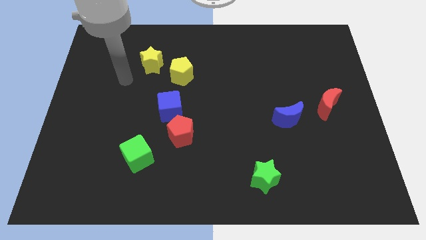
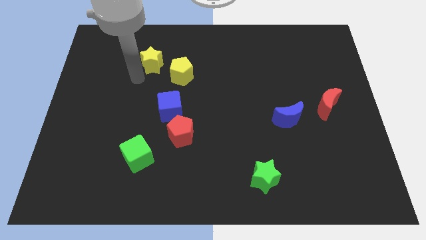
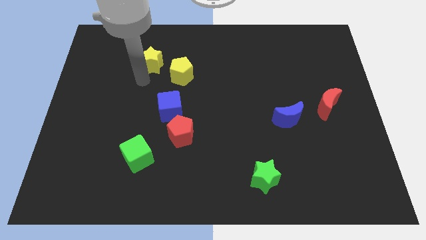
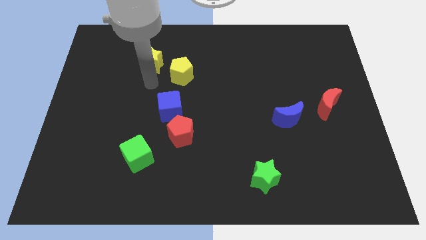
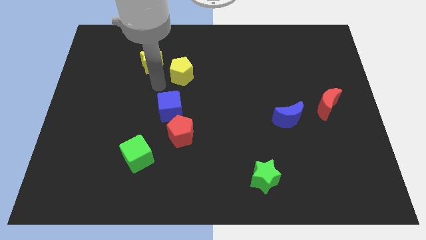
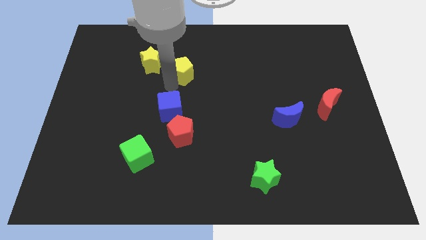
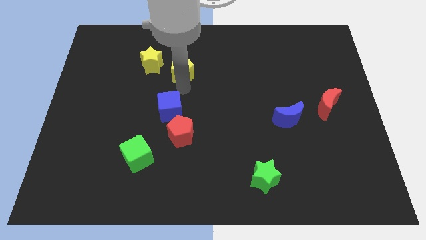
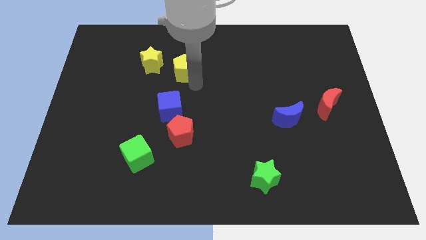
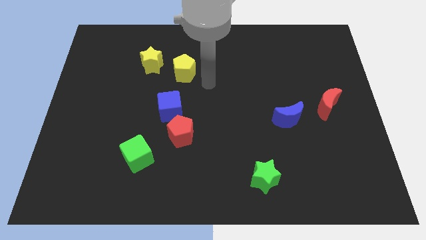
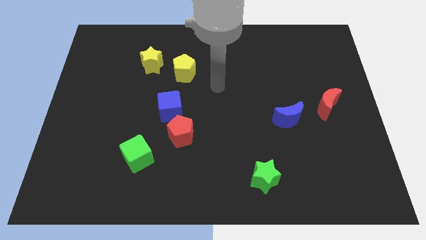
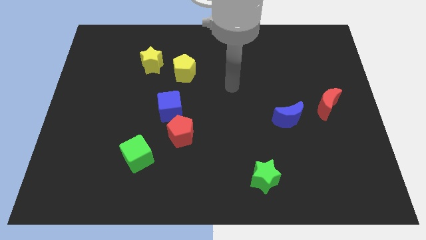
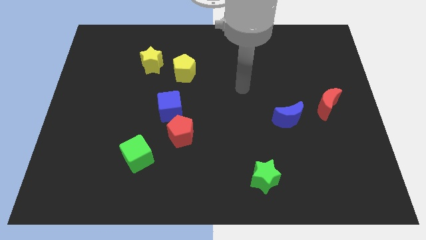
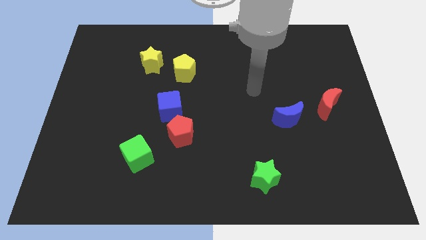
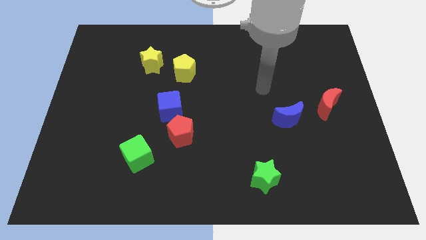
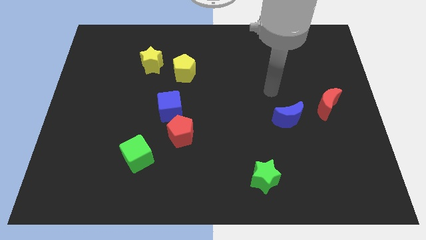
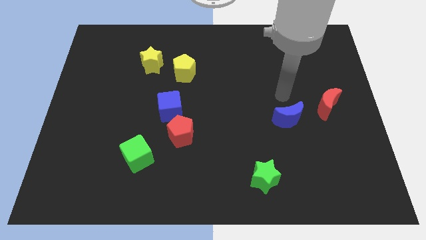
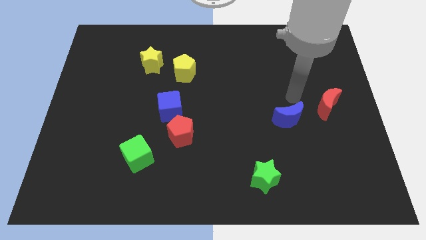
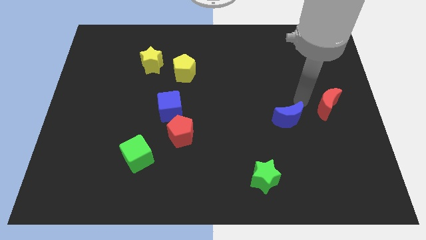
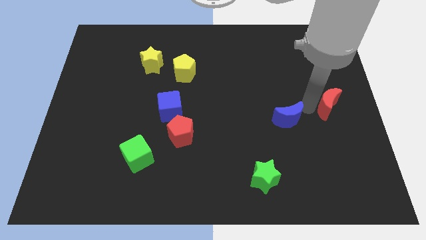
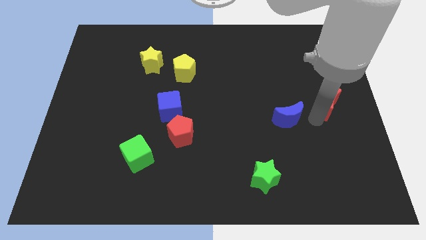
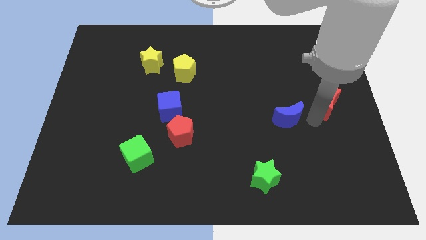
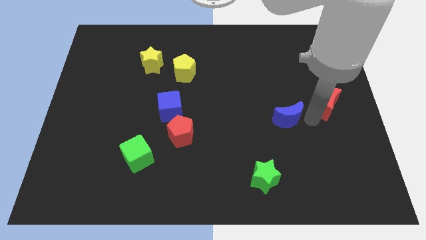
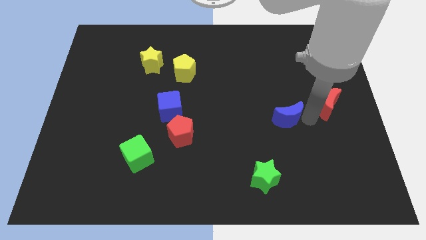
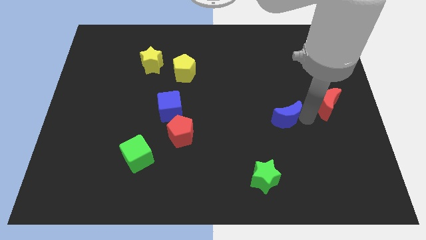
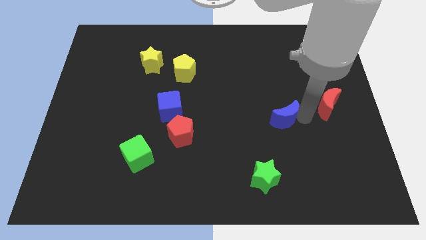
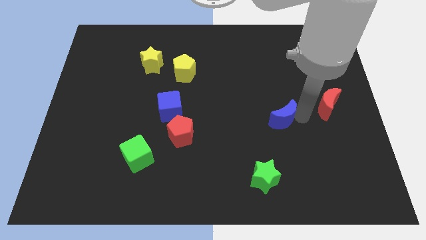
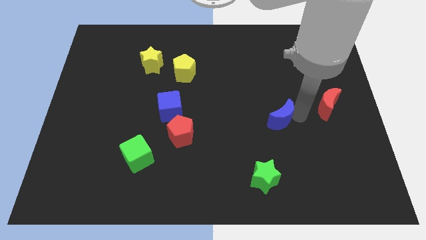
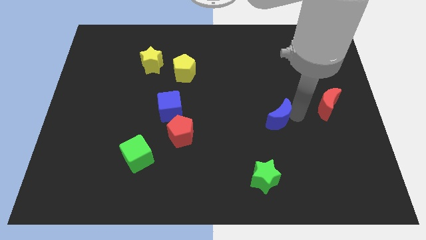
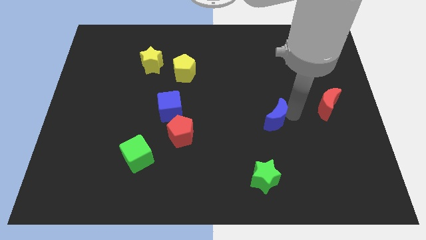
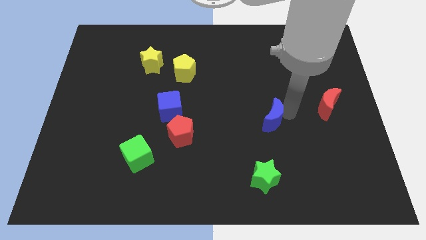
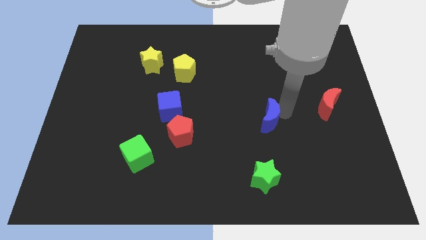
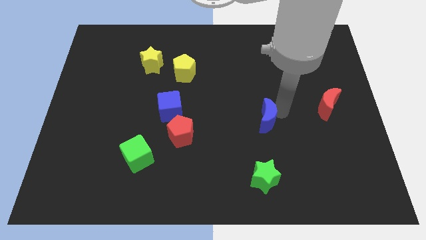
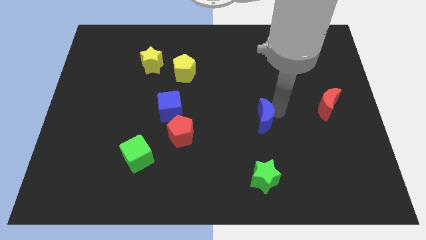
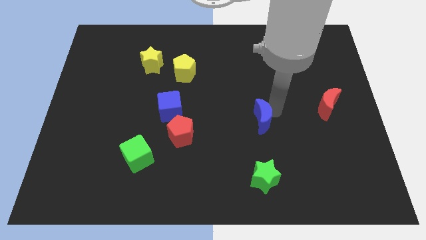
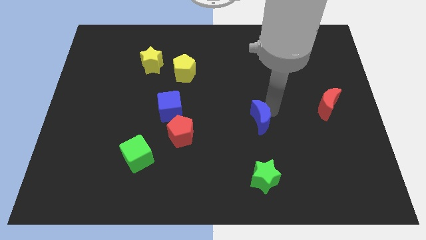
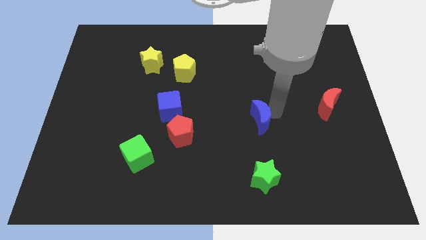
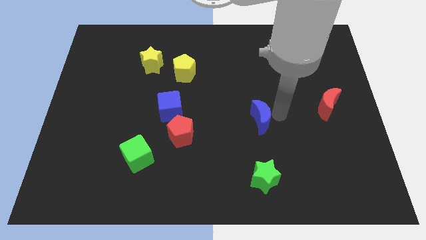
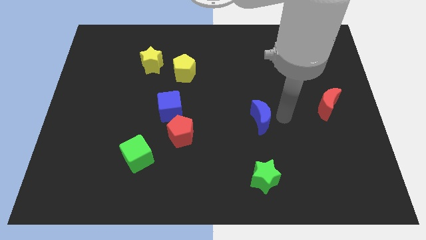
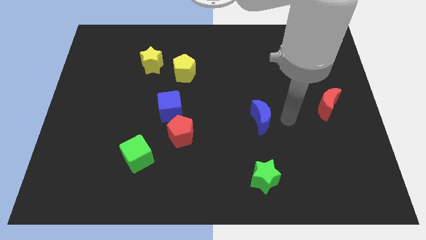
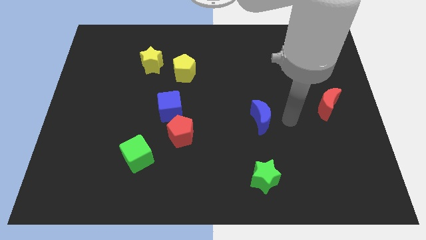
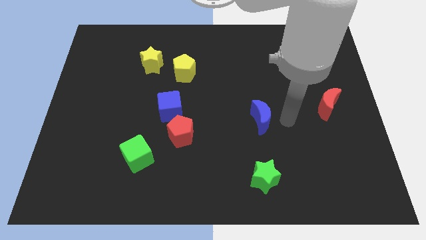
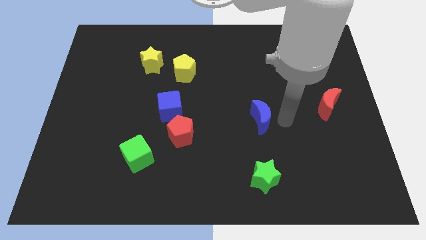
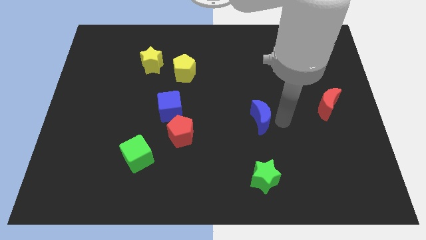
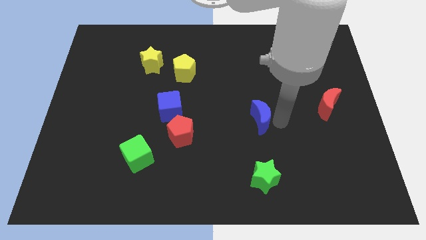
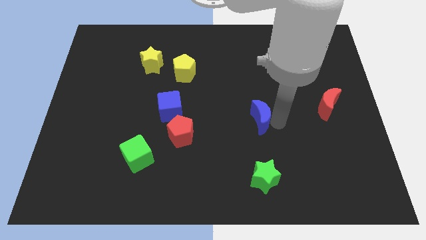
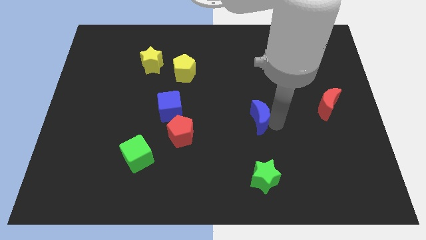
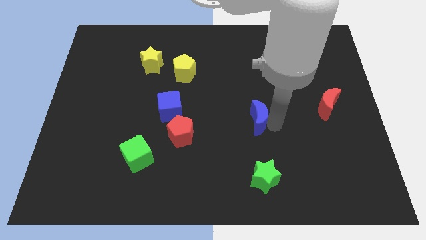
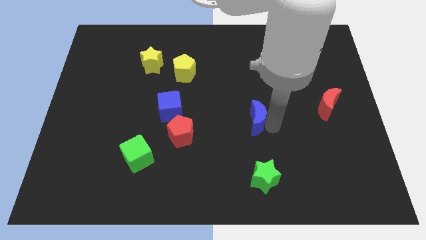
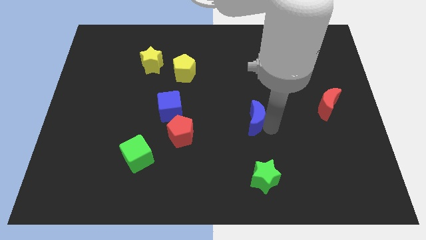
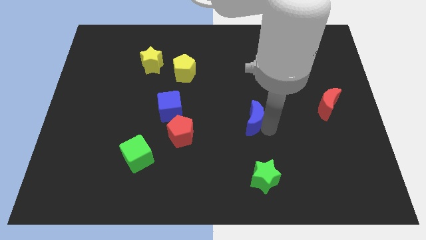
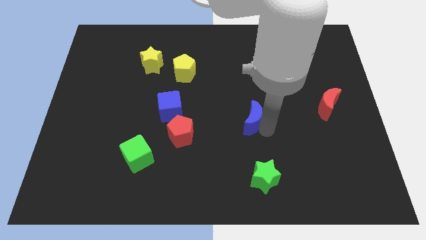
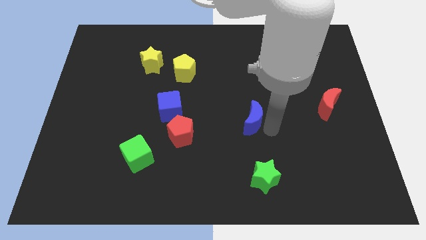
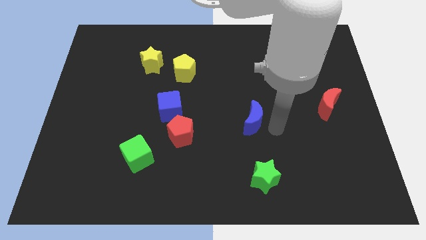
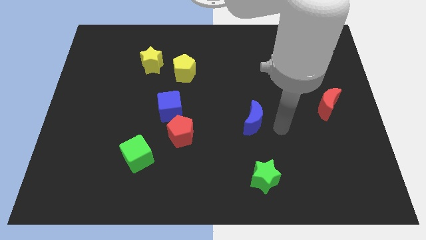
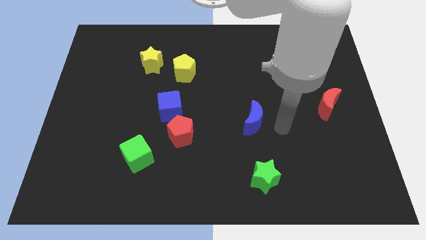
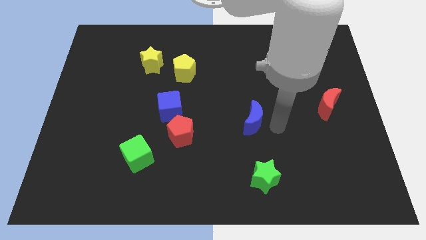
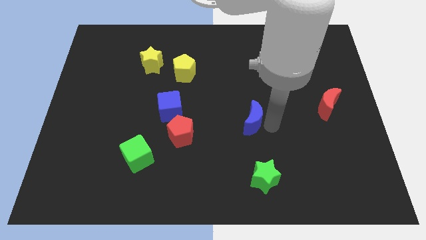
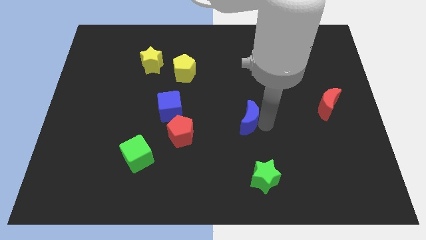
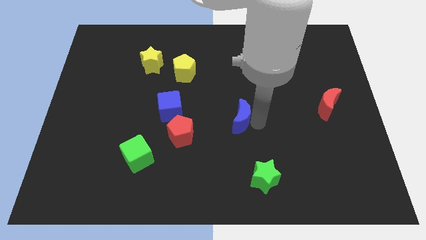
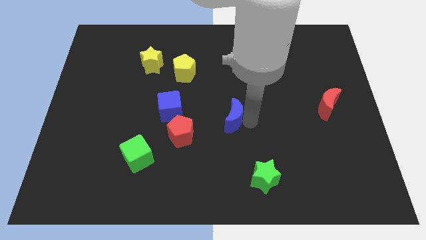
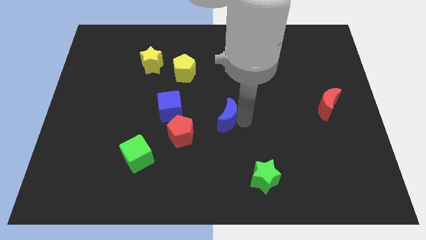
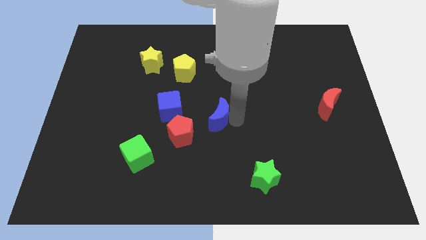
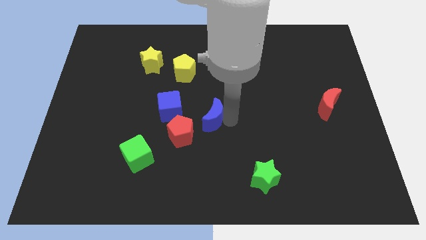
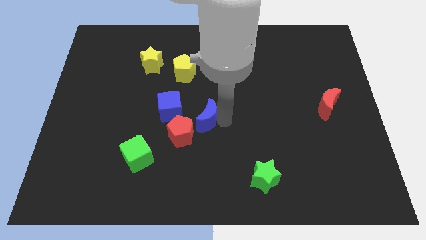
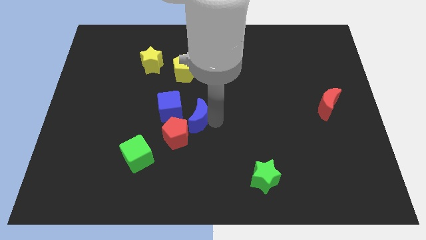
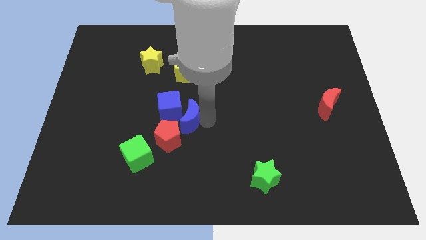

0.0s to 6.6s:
push the blue moon towards the blue cube

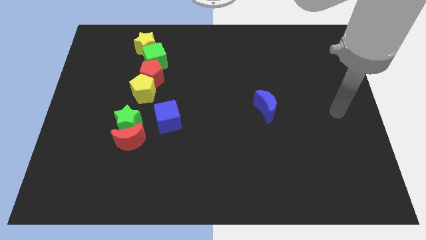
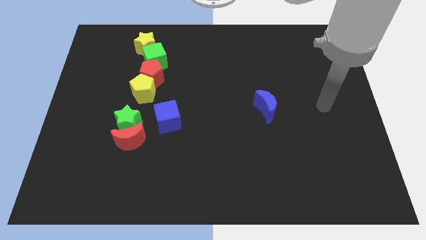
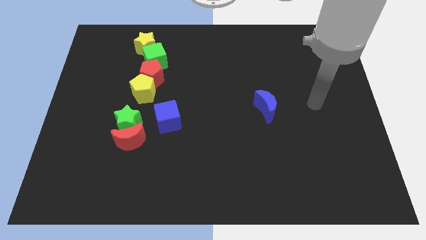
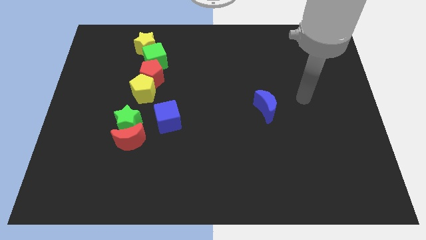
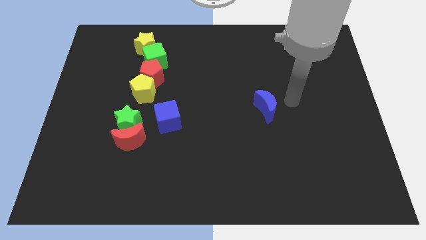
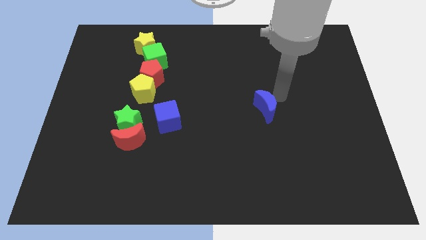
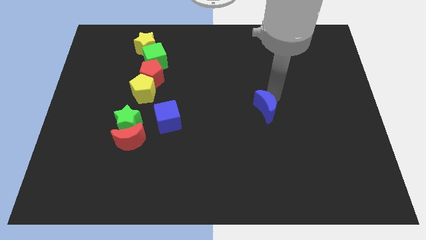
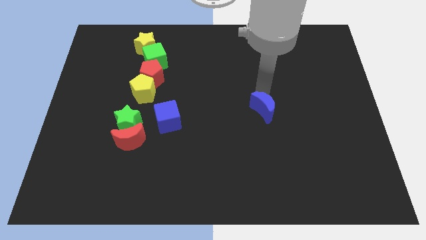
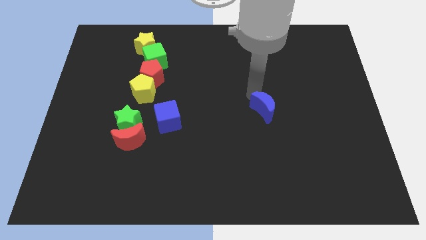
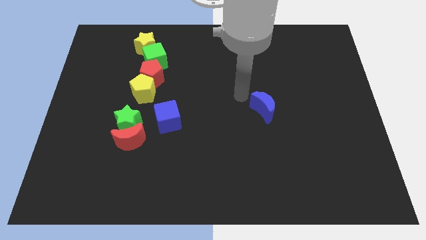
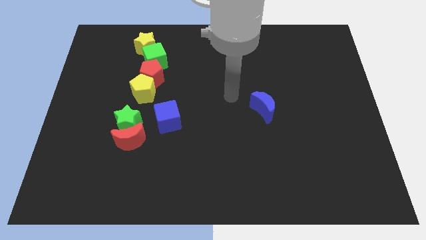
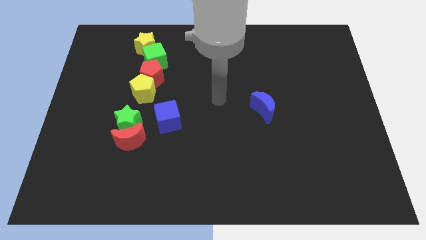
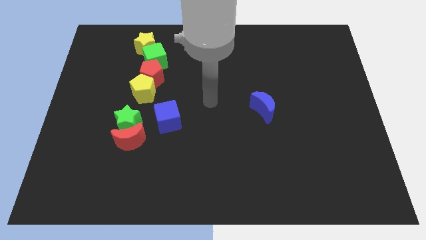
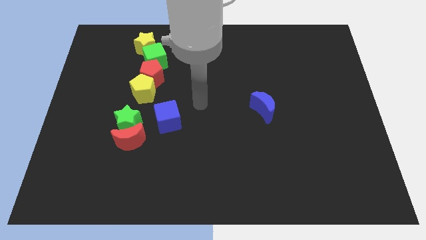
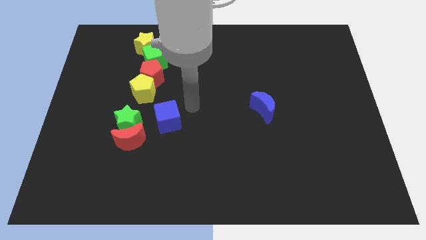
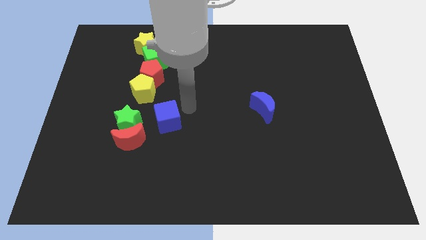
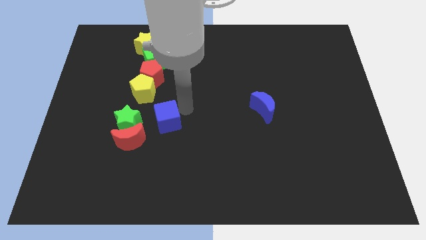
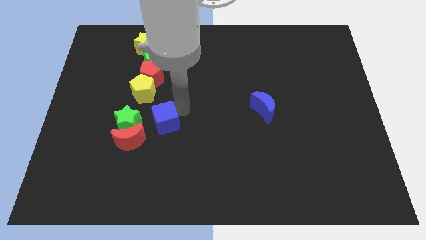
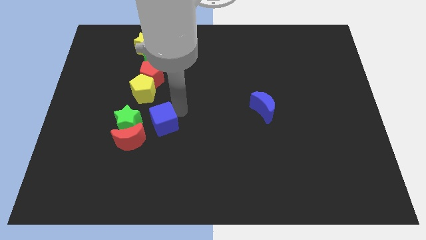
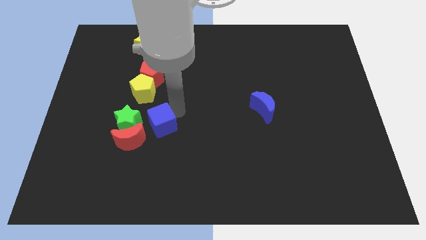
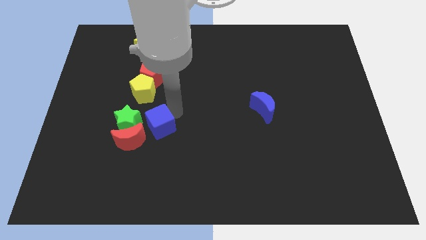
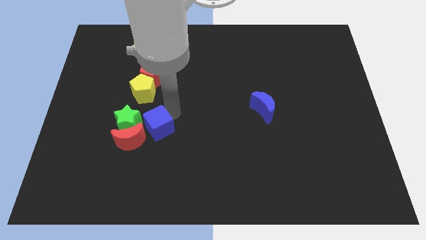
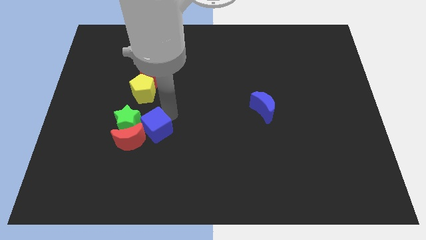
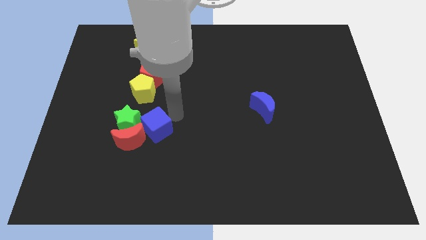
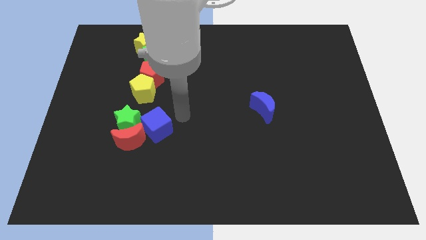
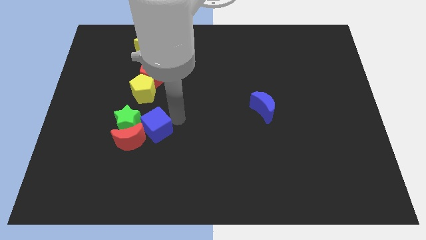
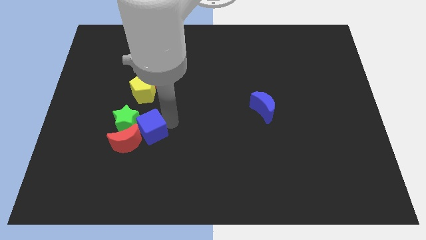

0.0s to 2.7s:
push the blue cube next to the red moon
